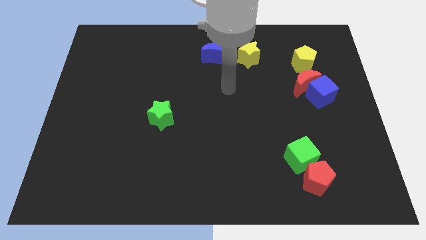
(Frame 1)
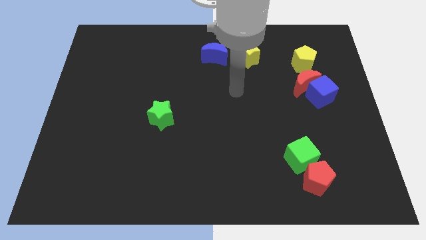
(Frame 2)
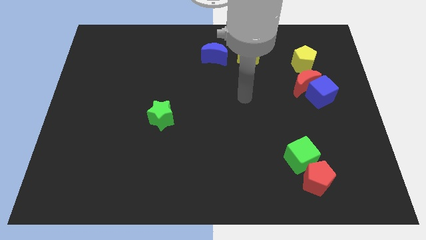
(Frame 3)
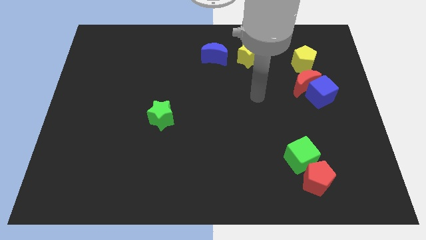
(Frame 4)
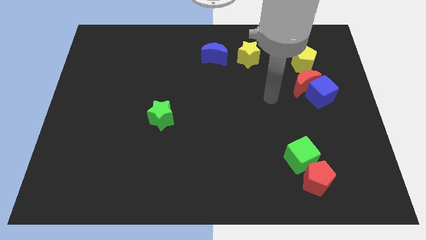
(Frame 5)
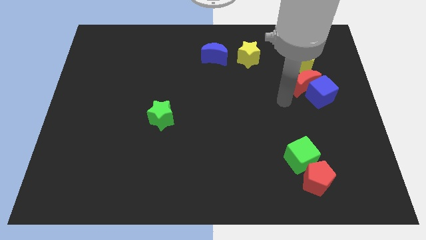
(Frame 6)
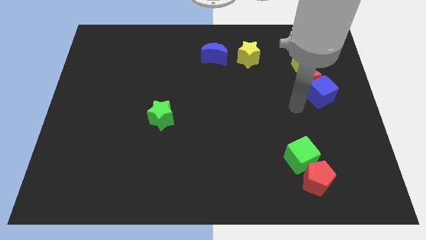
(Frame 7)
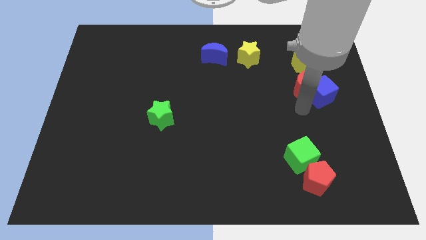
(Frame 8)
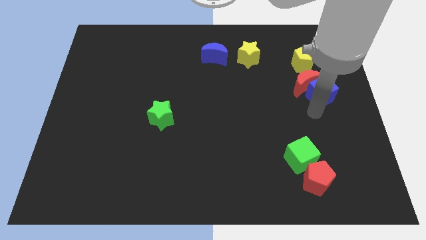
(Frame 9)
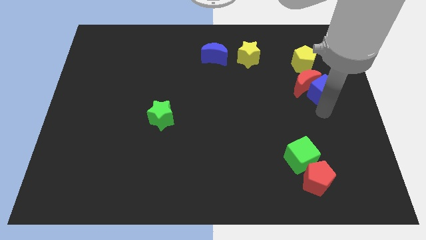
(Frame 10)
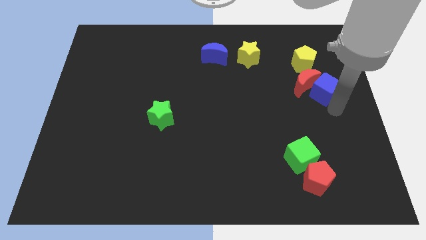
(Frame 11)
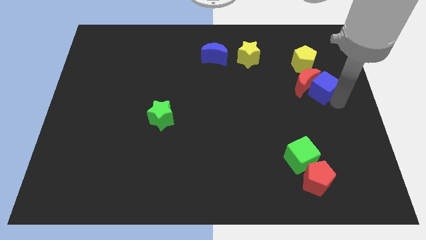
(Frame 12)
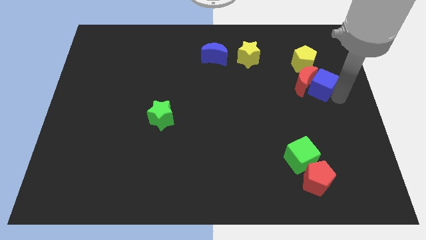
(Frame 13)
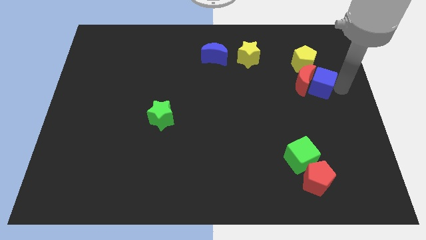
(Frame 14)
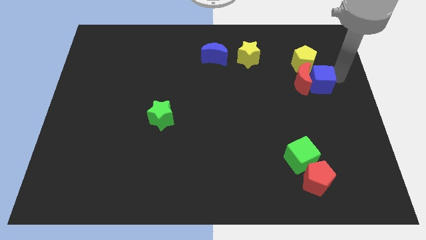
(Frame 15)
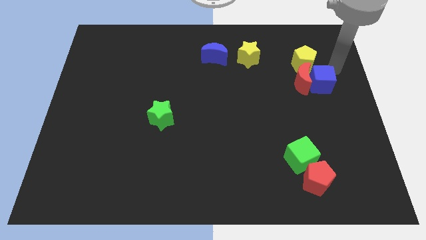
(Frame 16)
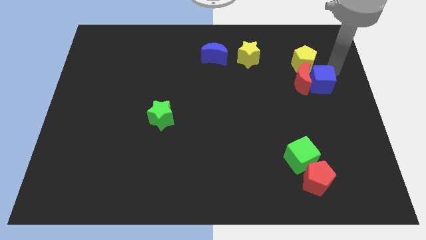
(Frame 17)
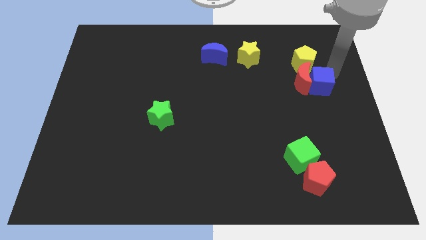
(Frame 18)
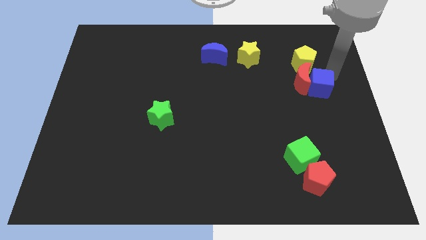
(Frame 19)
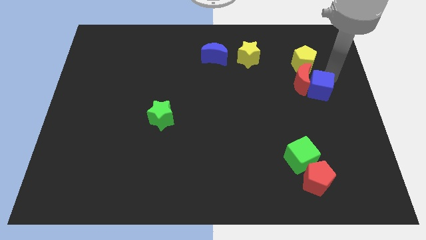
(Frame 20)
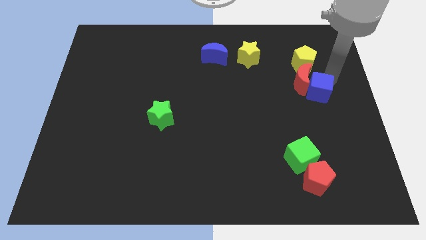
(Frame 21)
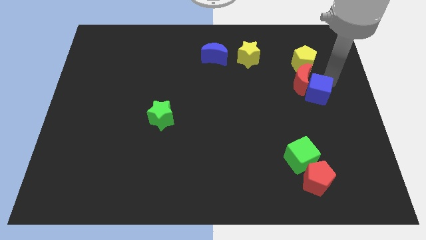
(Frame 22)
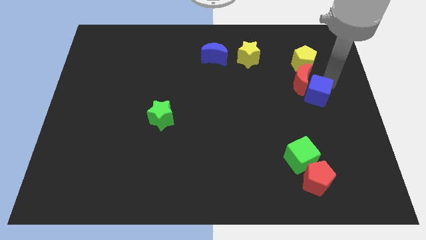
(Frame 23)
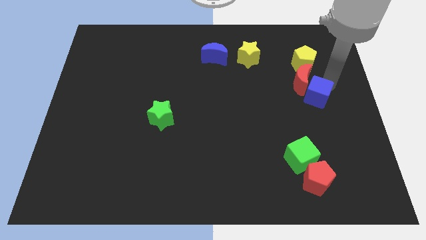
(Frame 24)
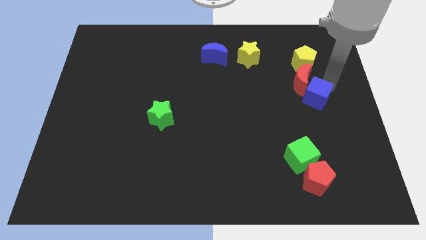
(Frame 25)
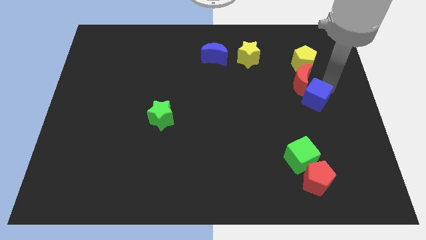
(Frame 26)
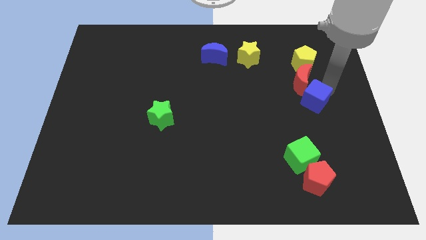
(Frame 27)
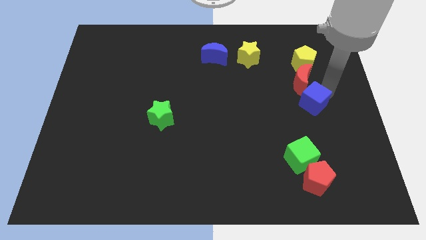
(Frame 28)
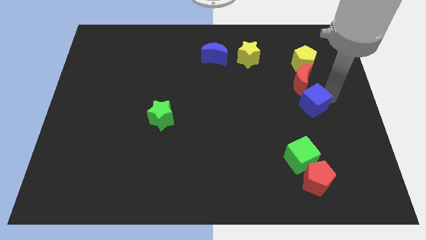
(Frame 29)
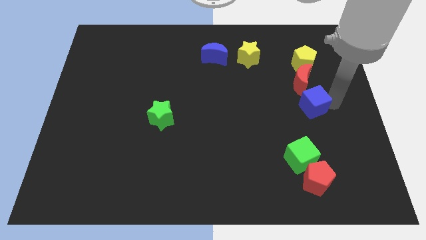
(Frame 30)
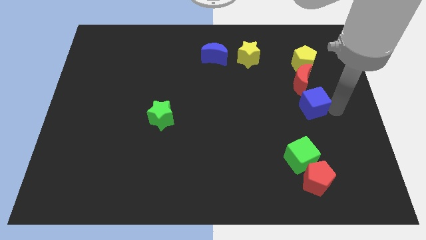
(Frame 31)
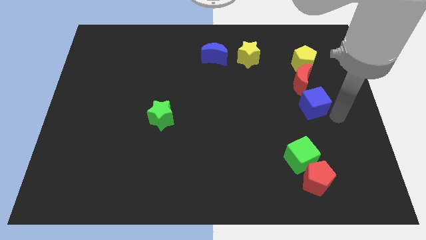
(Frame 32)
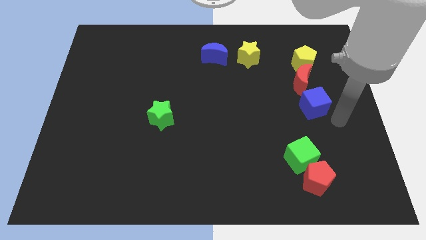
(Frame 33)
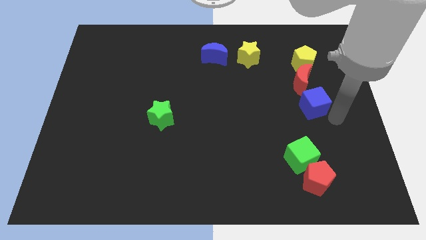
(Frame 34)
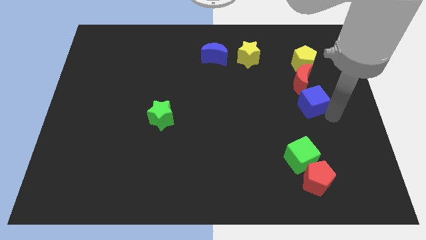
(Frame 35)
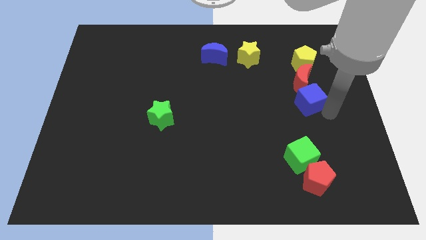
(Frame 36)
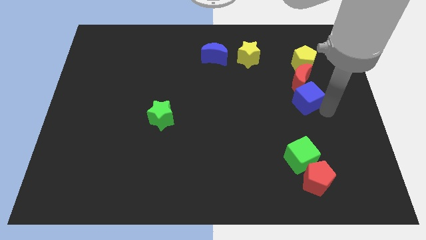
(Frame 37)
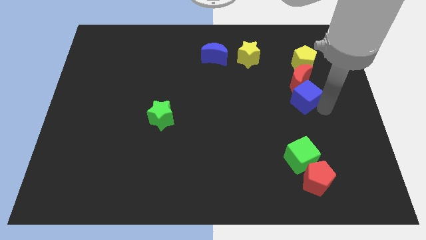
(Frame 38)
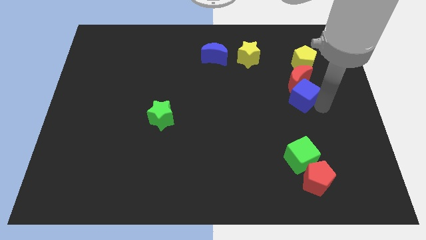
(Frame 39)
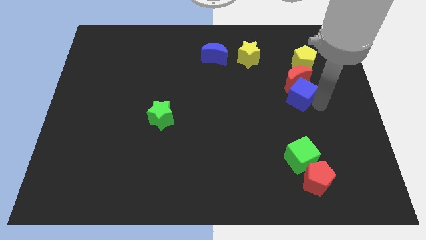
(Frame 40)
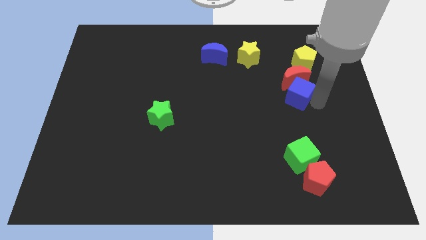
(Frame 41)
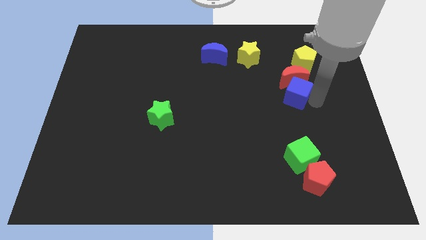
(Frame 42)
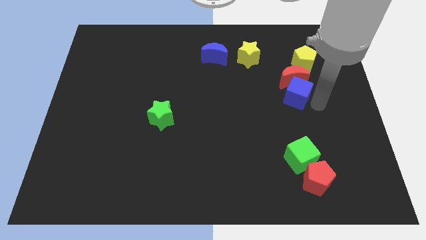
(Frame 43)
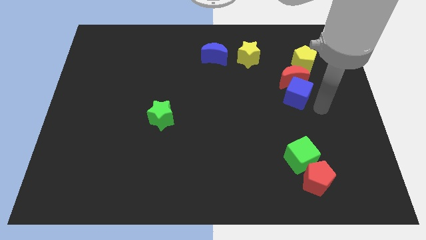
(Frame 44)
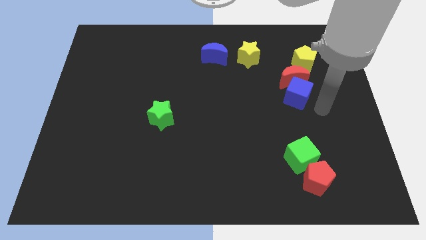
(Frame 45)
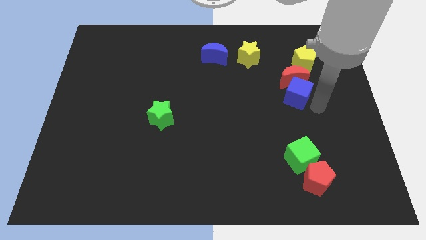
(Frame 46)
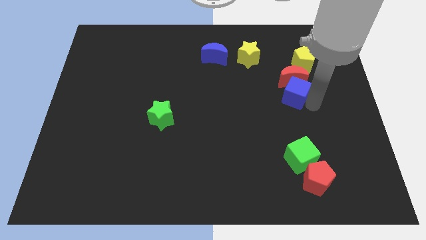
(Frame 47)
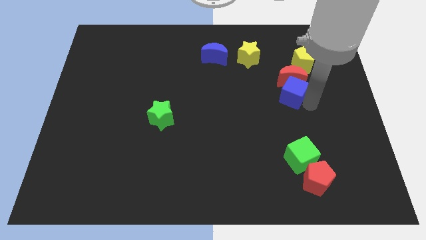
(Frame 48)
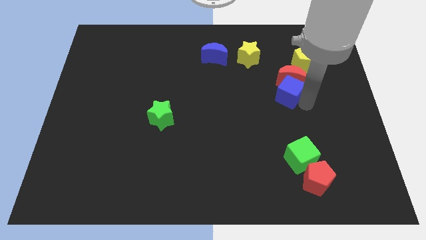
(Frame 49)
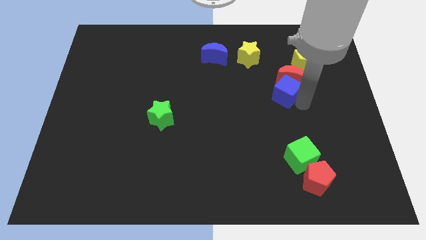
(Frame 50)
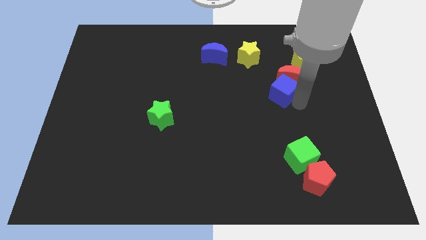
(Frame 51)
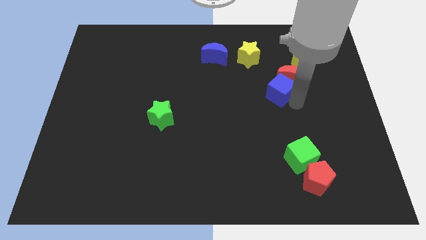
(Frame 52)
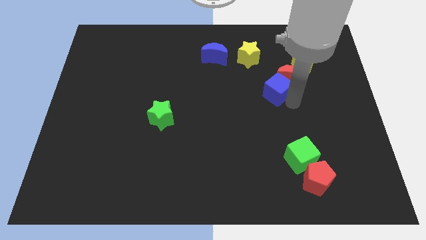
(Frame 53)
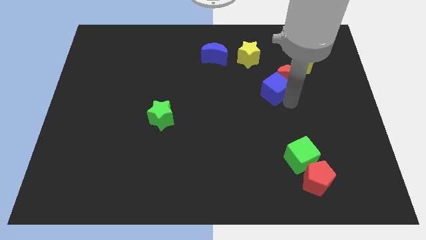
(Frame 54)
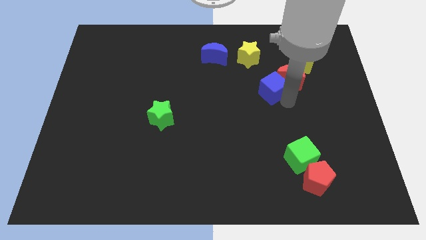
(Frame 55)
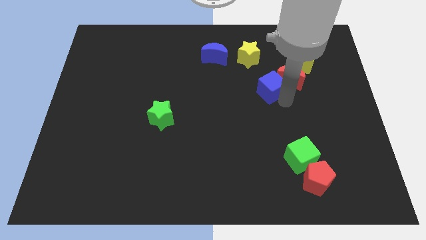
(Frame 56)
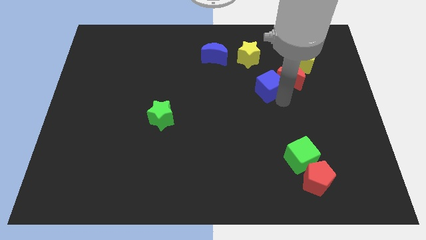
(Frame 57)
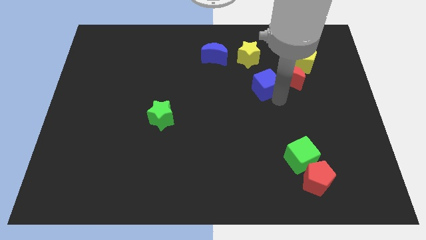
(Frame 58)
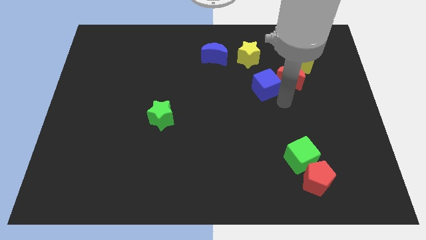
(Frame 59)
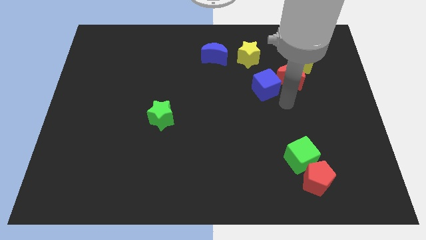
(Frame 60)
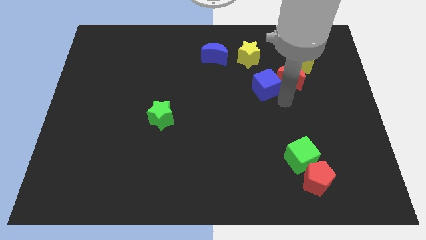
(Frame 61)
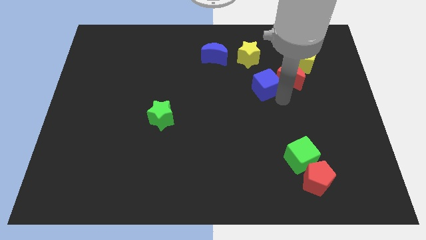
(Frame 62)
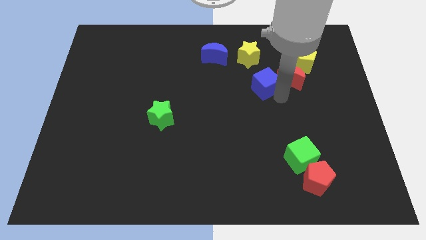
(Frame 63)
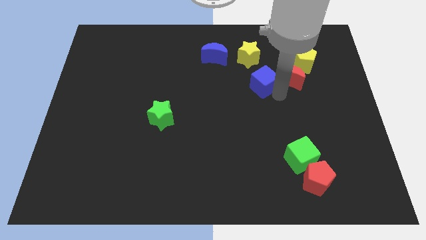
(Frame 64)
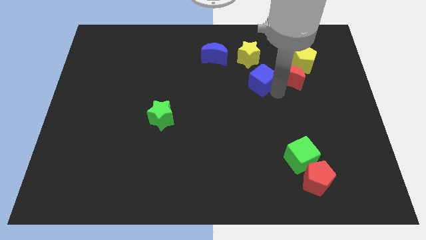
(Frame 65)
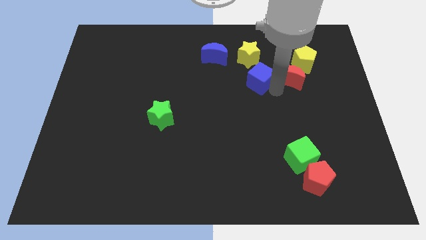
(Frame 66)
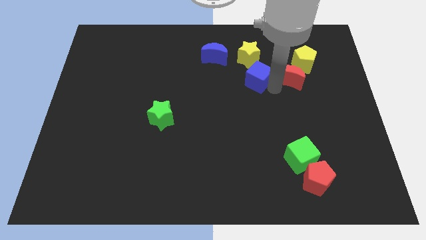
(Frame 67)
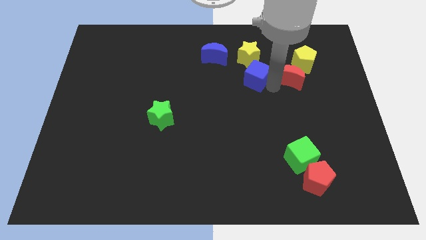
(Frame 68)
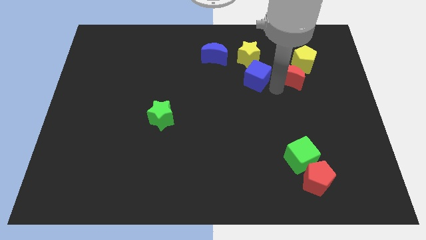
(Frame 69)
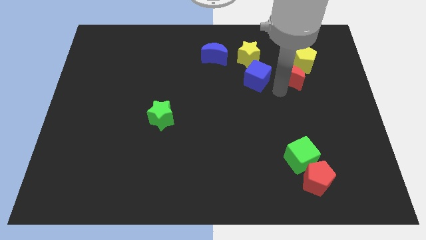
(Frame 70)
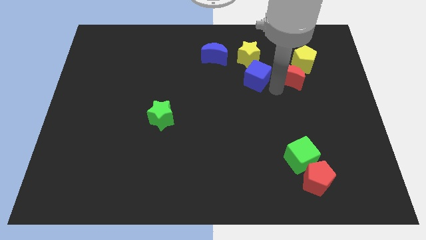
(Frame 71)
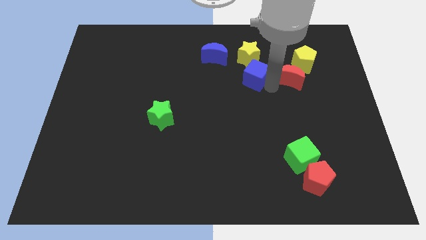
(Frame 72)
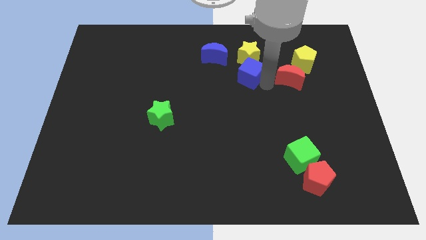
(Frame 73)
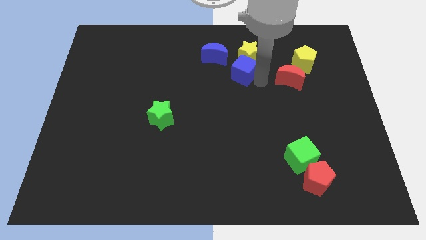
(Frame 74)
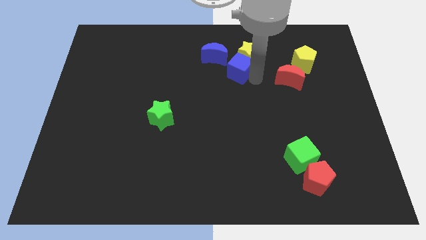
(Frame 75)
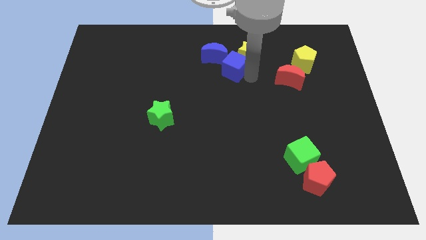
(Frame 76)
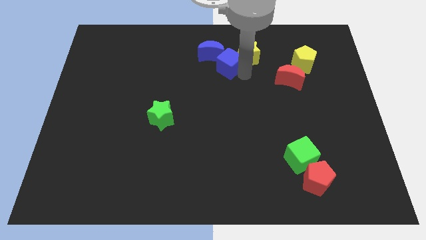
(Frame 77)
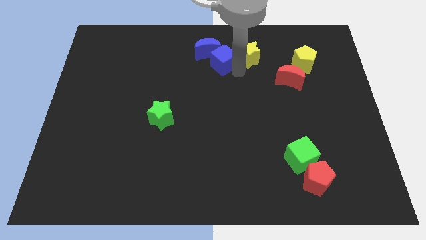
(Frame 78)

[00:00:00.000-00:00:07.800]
slide the blue cube next to the blue moon
